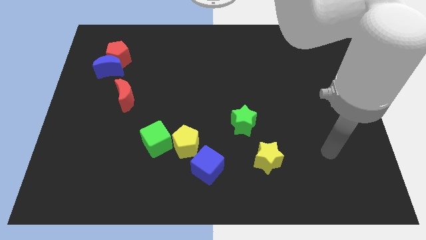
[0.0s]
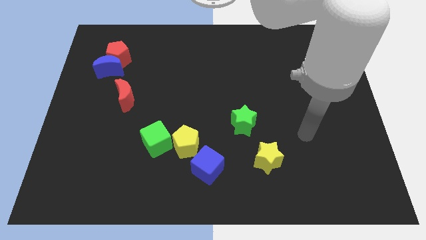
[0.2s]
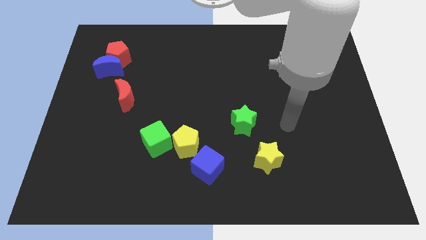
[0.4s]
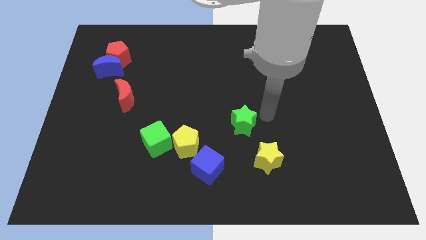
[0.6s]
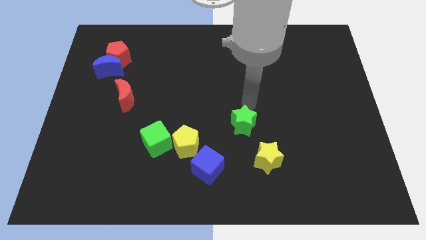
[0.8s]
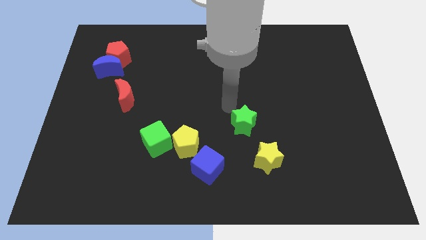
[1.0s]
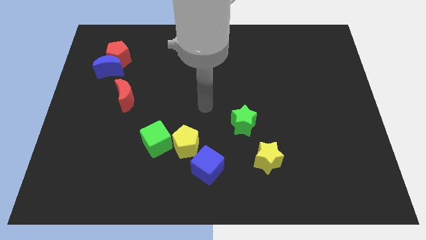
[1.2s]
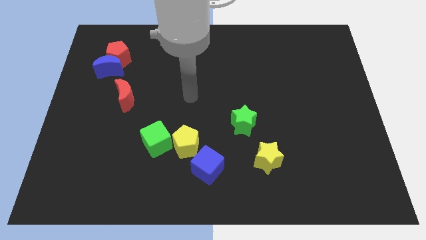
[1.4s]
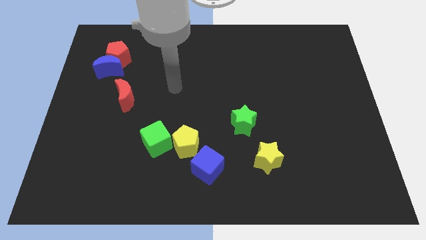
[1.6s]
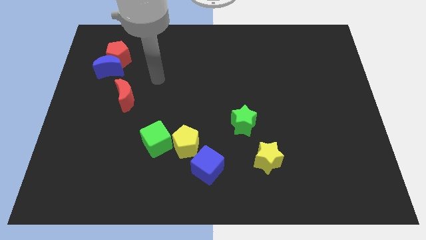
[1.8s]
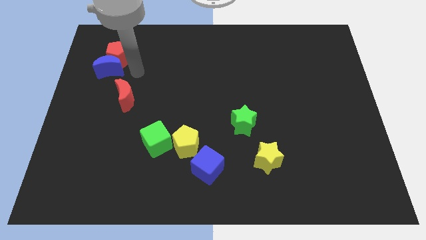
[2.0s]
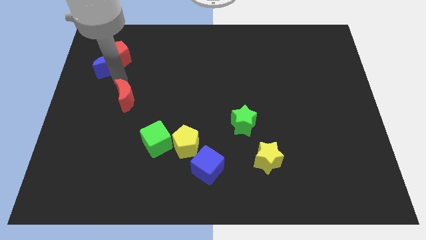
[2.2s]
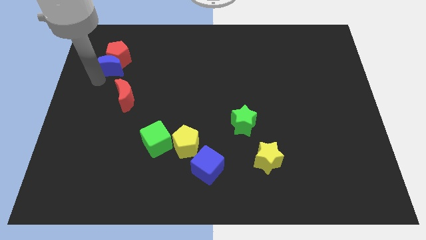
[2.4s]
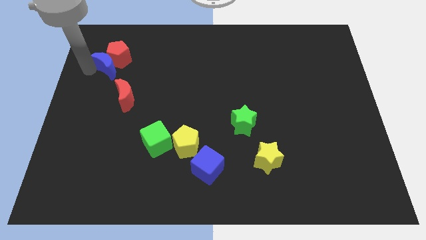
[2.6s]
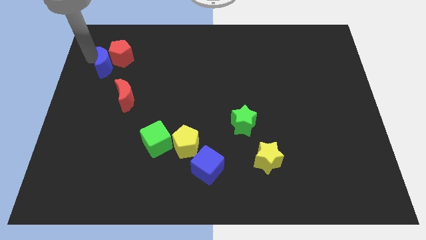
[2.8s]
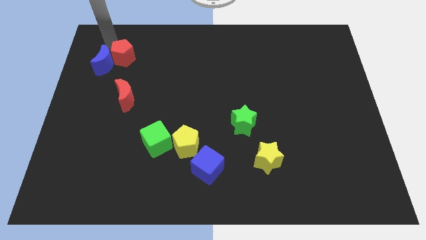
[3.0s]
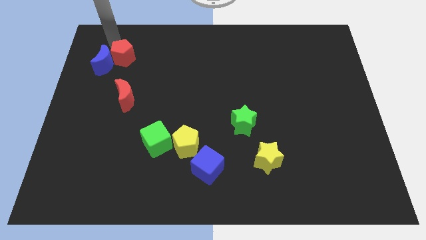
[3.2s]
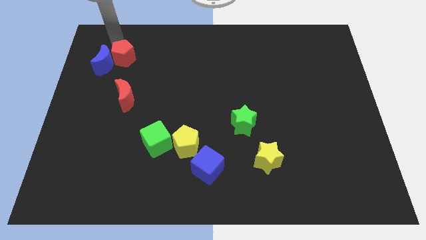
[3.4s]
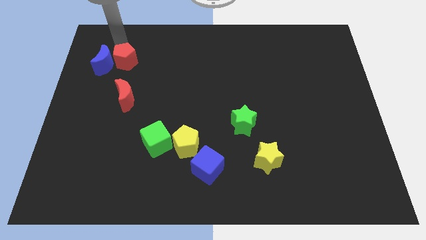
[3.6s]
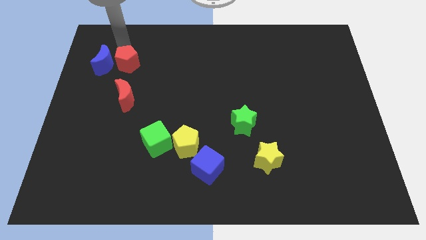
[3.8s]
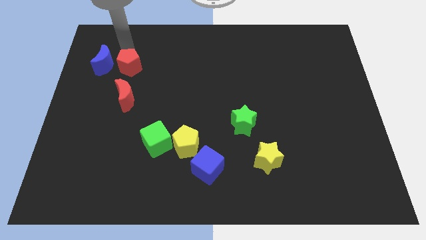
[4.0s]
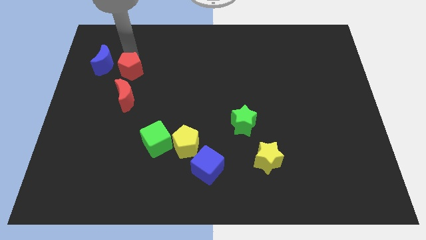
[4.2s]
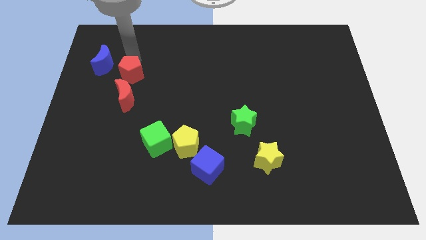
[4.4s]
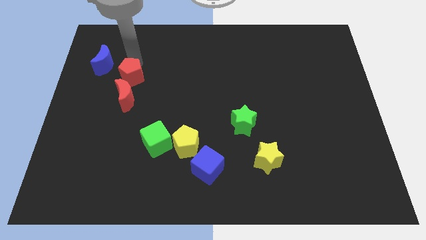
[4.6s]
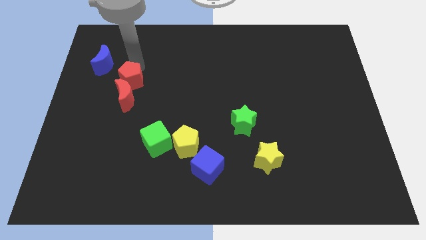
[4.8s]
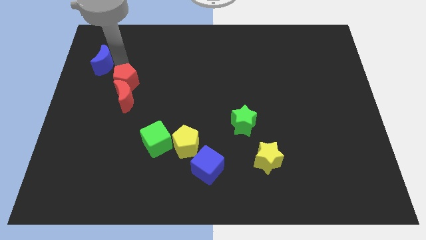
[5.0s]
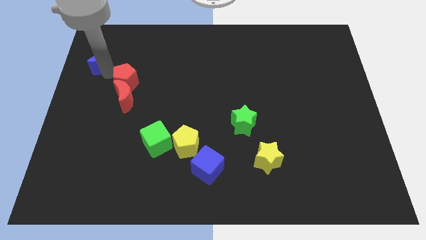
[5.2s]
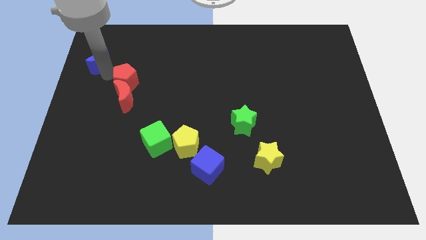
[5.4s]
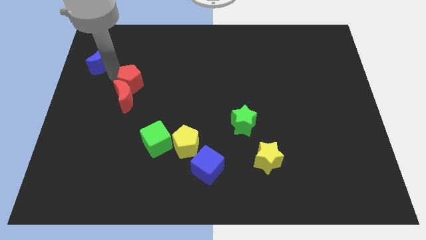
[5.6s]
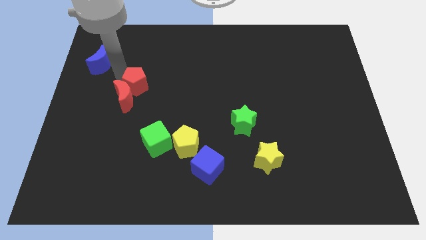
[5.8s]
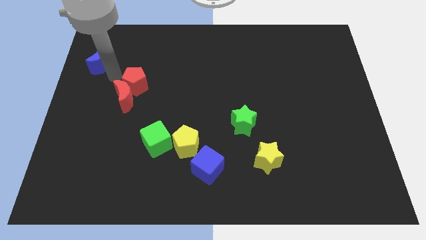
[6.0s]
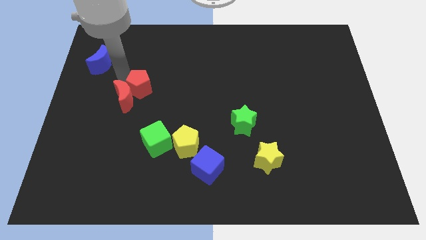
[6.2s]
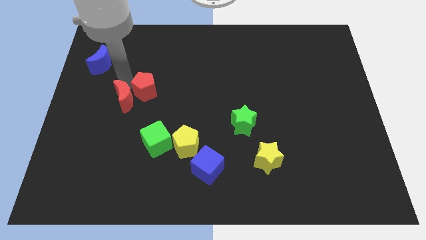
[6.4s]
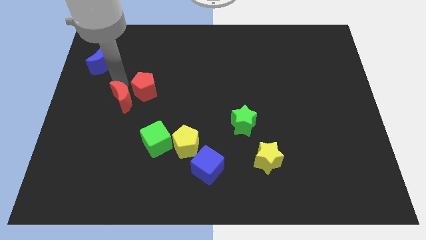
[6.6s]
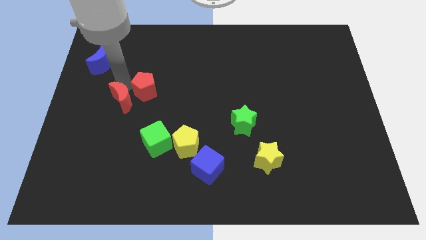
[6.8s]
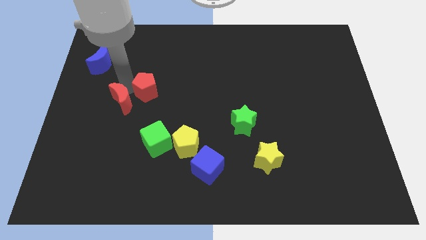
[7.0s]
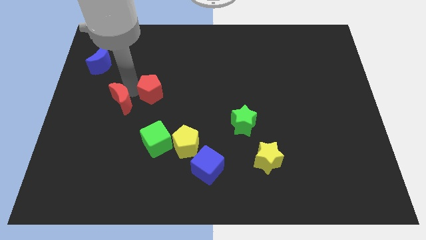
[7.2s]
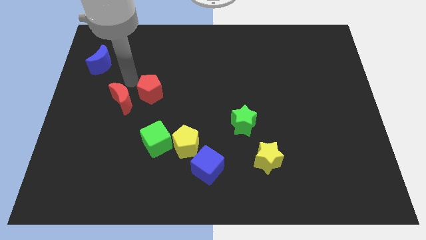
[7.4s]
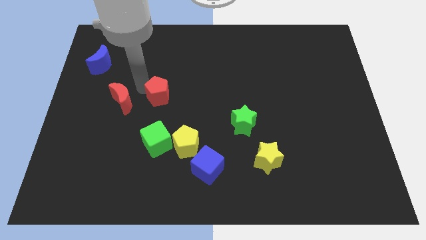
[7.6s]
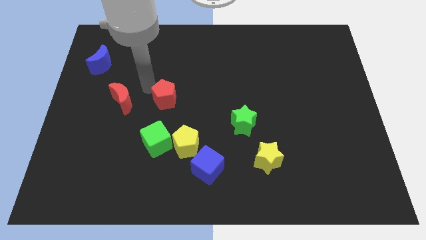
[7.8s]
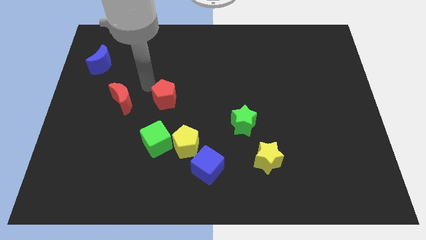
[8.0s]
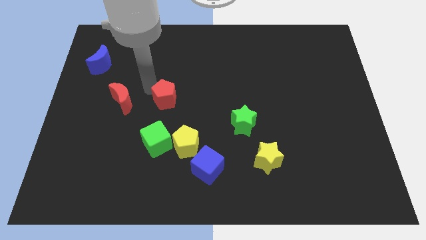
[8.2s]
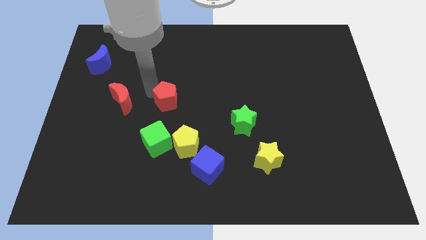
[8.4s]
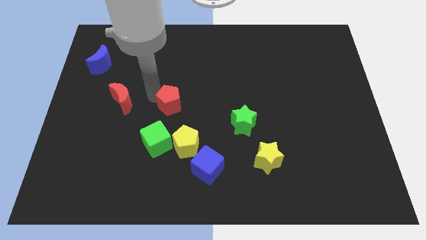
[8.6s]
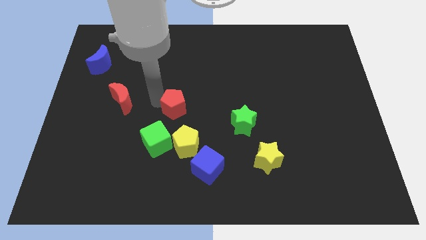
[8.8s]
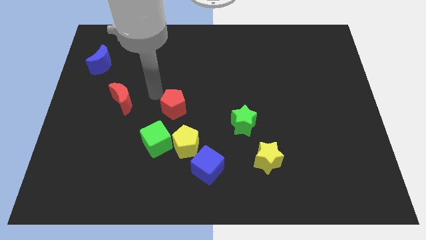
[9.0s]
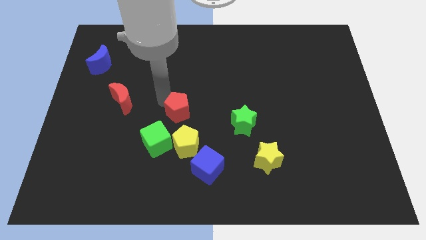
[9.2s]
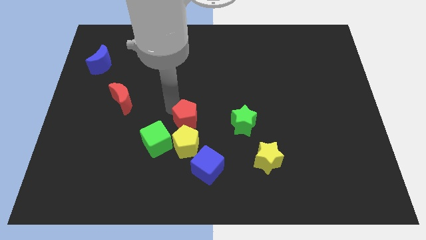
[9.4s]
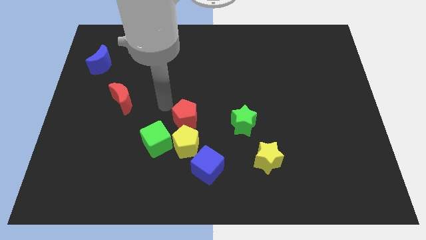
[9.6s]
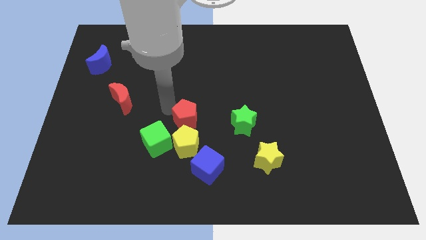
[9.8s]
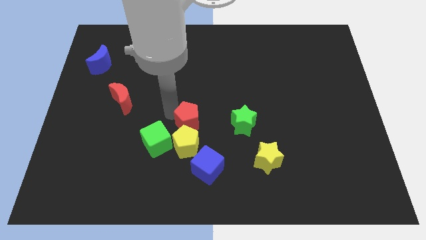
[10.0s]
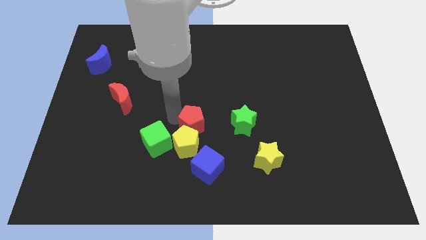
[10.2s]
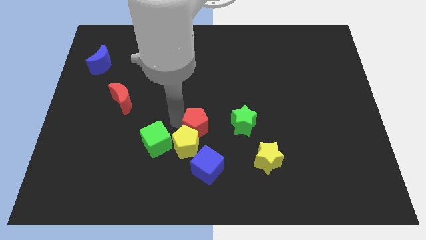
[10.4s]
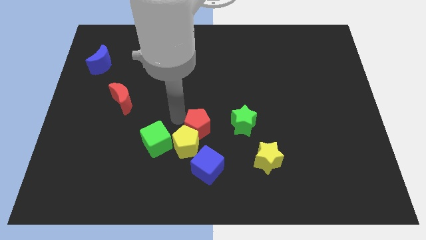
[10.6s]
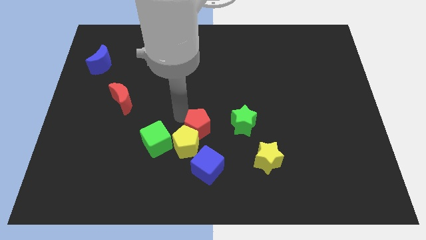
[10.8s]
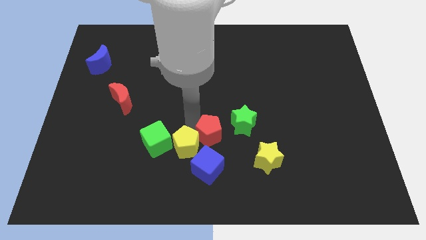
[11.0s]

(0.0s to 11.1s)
put the red pentagon to the bottom left of the green star
